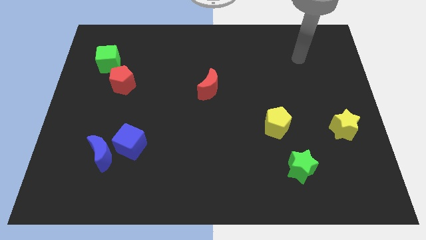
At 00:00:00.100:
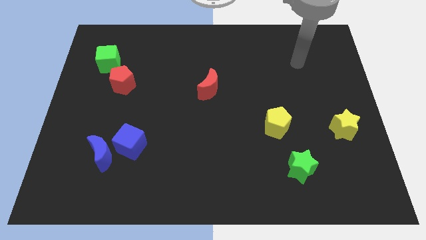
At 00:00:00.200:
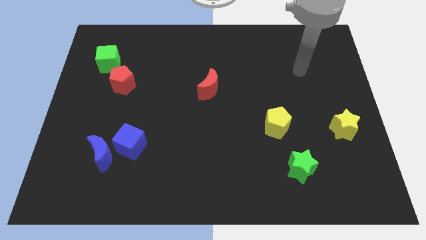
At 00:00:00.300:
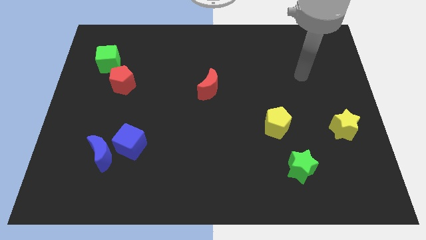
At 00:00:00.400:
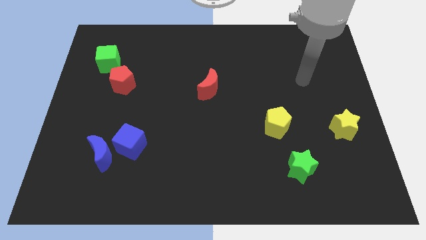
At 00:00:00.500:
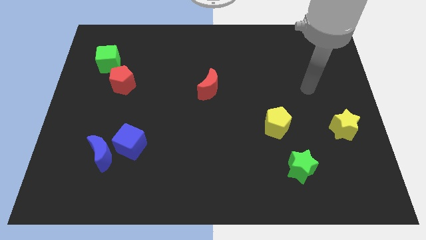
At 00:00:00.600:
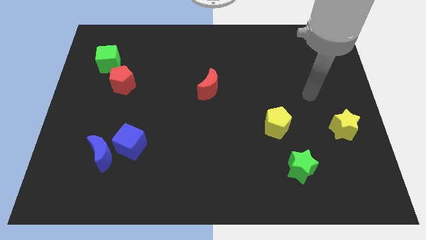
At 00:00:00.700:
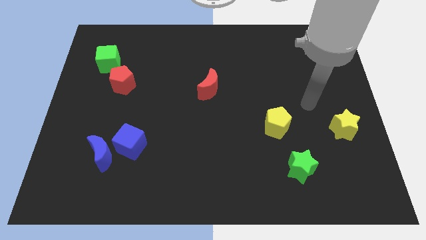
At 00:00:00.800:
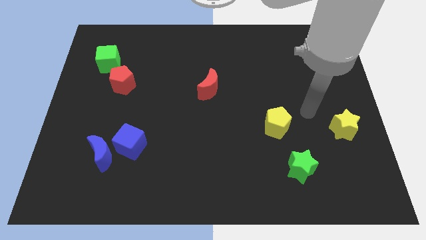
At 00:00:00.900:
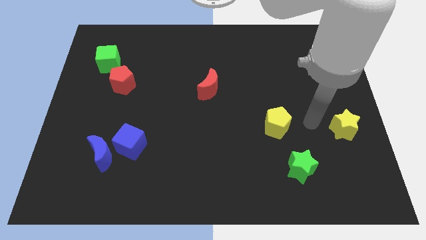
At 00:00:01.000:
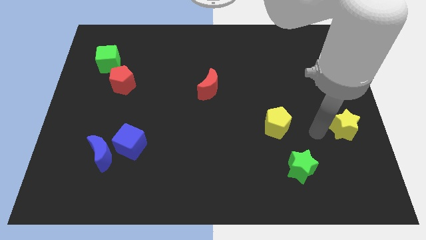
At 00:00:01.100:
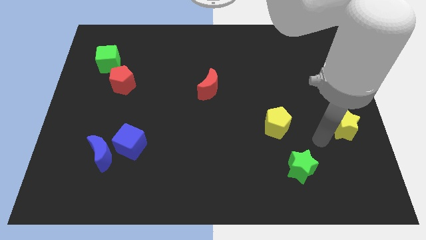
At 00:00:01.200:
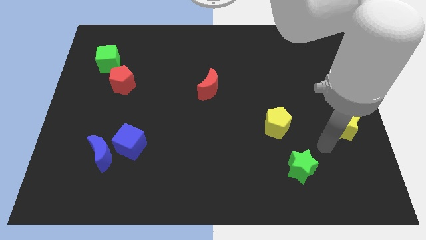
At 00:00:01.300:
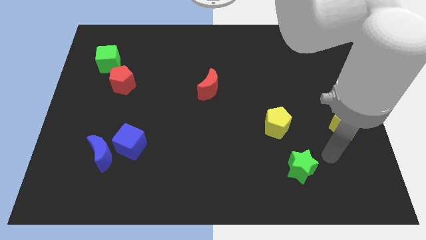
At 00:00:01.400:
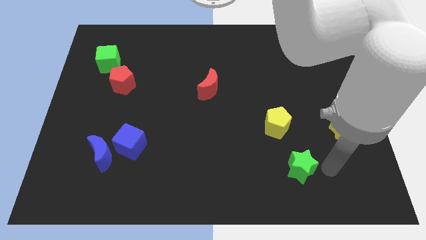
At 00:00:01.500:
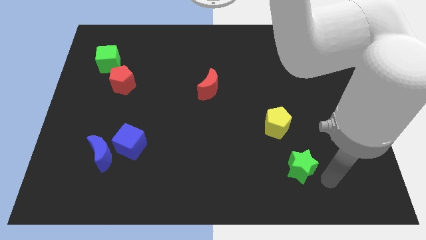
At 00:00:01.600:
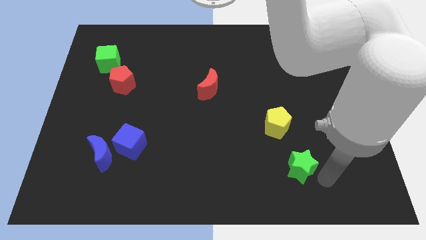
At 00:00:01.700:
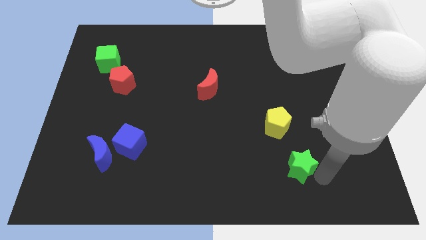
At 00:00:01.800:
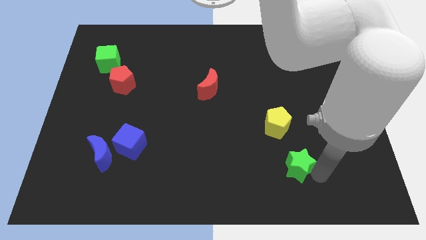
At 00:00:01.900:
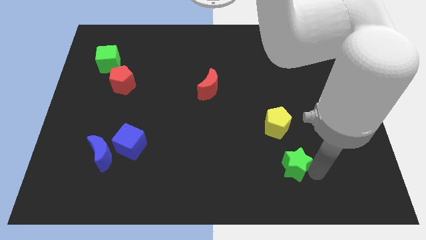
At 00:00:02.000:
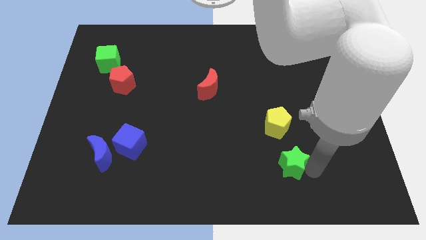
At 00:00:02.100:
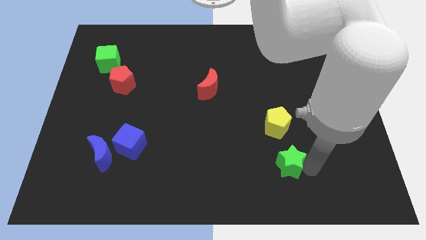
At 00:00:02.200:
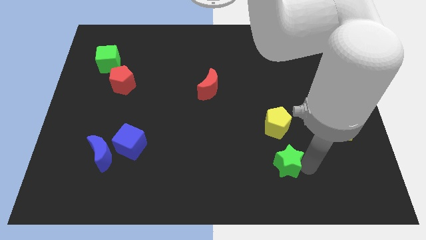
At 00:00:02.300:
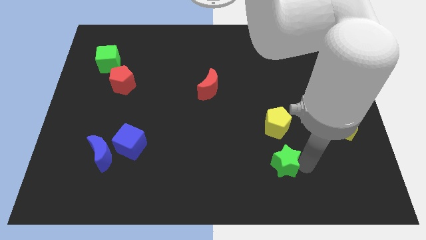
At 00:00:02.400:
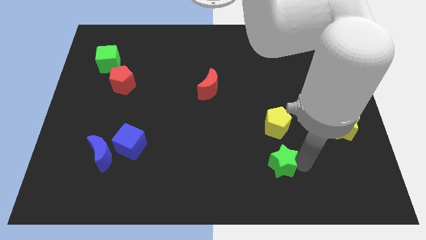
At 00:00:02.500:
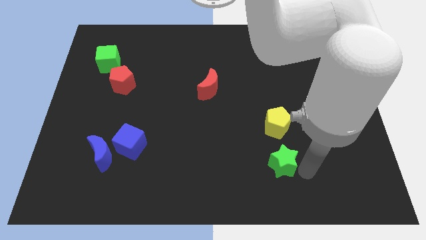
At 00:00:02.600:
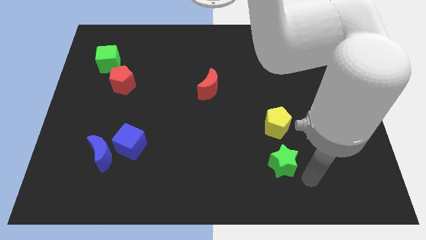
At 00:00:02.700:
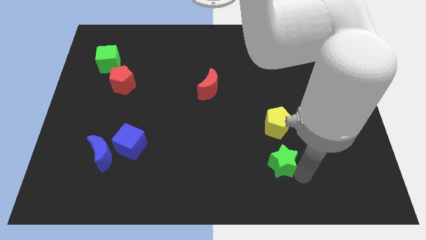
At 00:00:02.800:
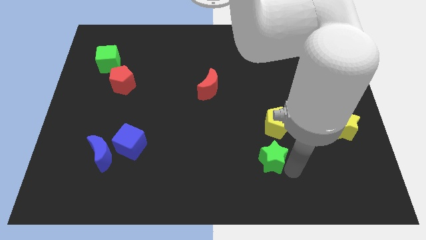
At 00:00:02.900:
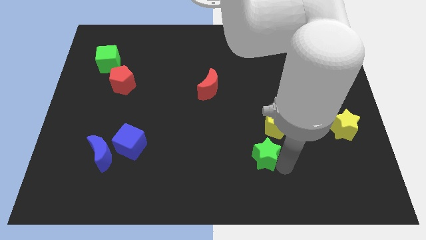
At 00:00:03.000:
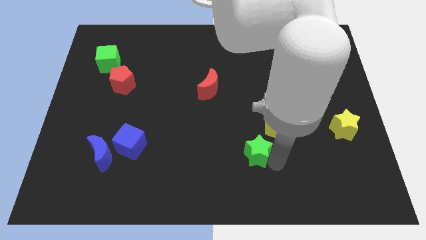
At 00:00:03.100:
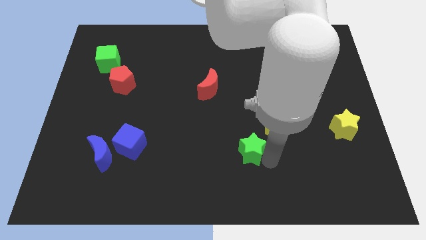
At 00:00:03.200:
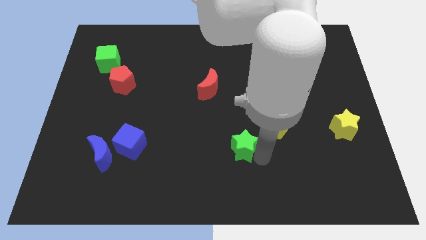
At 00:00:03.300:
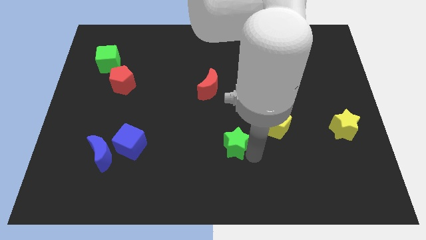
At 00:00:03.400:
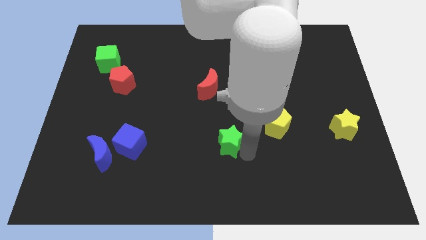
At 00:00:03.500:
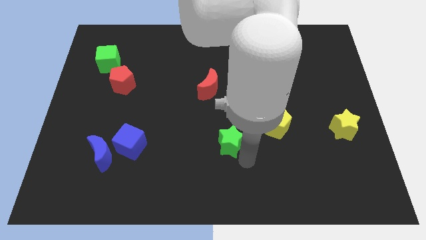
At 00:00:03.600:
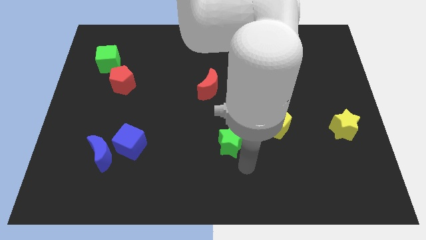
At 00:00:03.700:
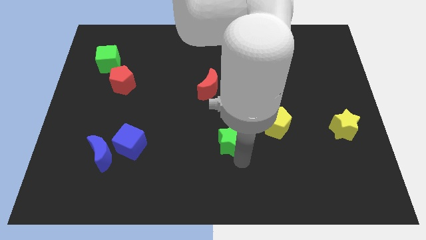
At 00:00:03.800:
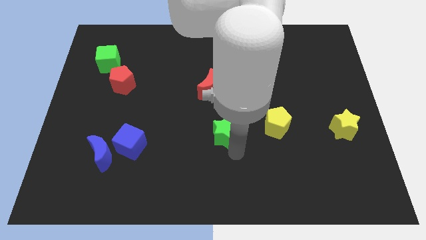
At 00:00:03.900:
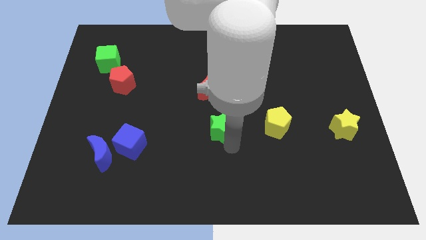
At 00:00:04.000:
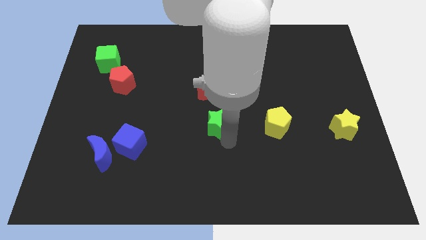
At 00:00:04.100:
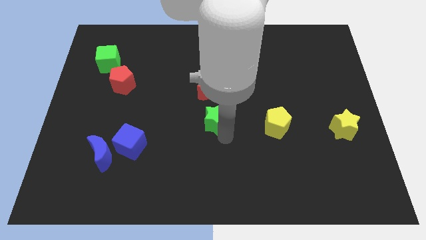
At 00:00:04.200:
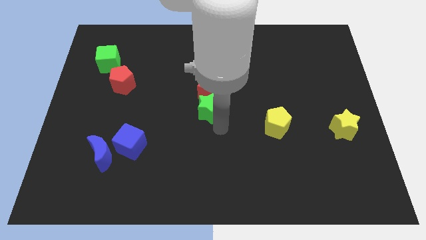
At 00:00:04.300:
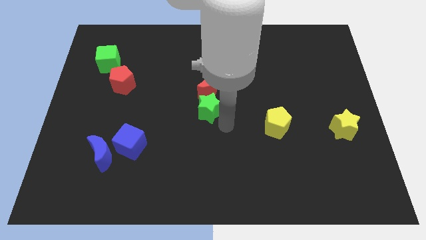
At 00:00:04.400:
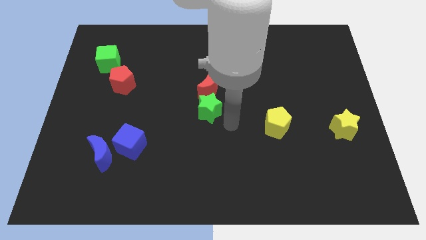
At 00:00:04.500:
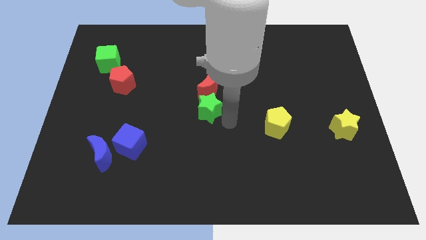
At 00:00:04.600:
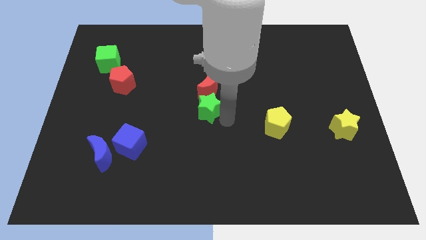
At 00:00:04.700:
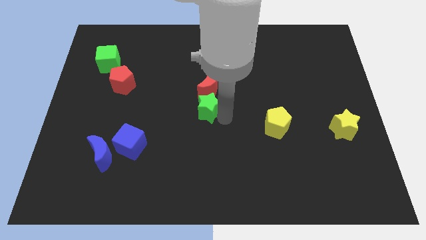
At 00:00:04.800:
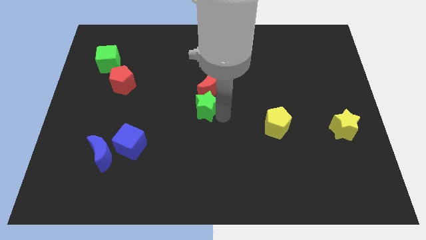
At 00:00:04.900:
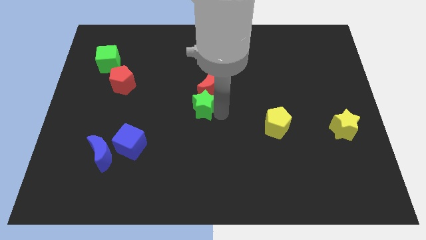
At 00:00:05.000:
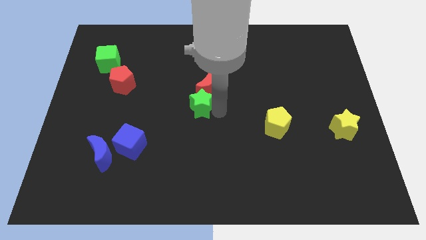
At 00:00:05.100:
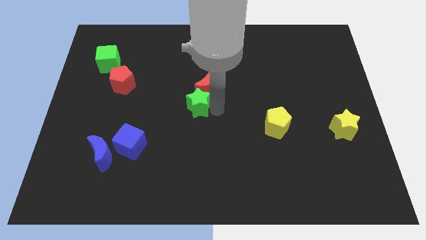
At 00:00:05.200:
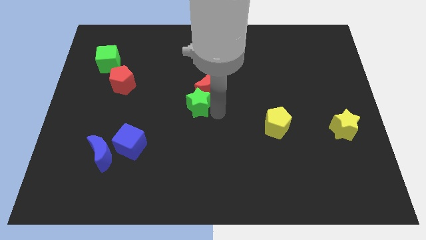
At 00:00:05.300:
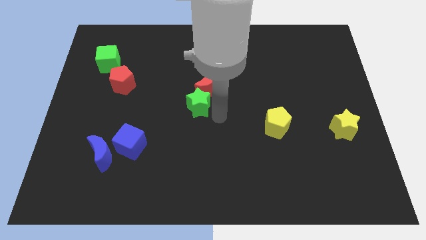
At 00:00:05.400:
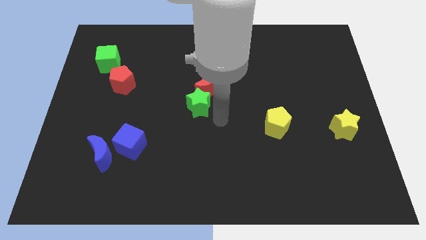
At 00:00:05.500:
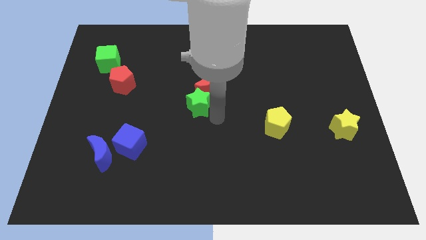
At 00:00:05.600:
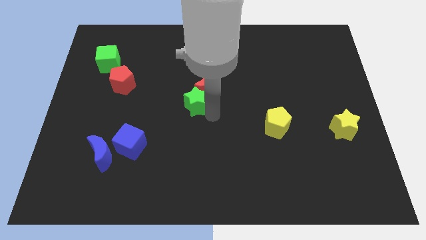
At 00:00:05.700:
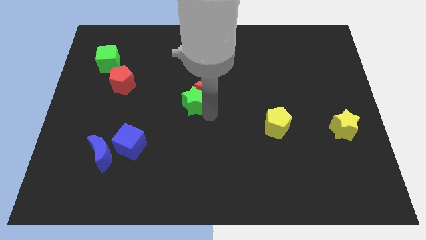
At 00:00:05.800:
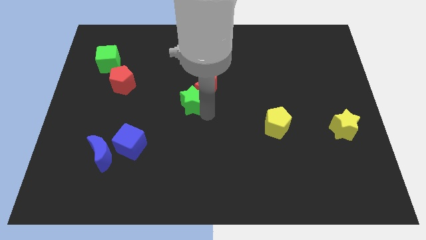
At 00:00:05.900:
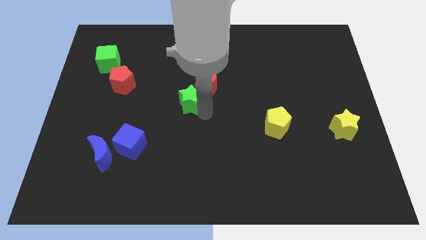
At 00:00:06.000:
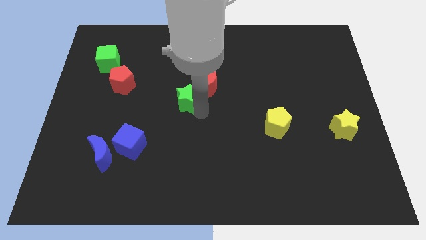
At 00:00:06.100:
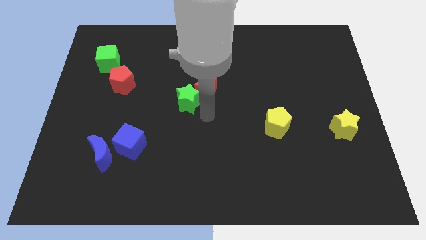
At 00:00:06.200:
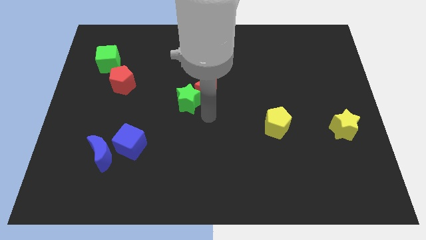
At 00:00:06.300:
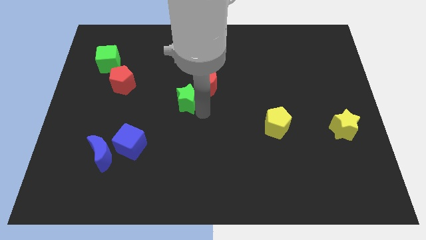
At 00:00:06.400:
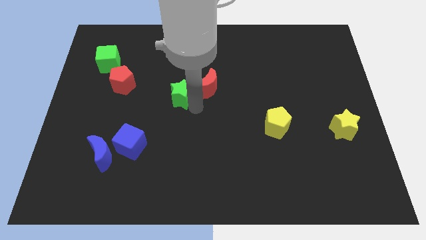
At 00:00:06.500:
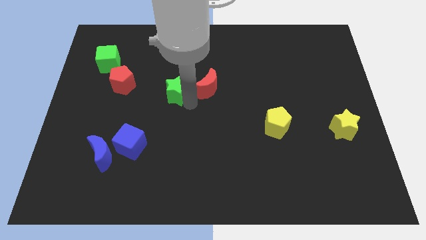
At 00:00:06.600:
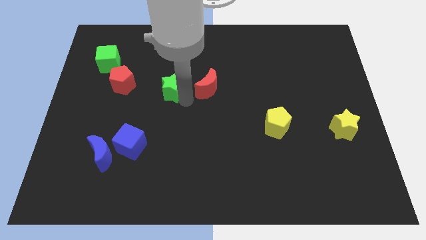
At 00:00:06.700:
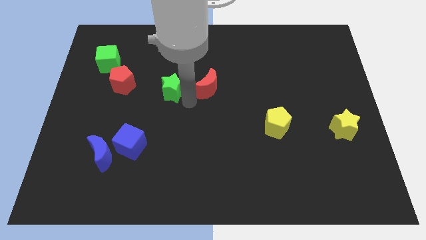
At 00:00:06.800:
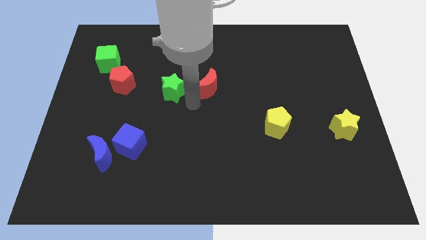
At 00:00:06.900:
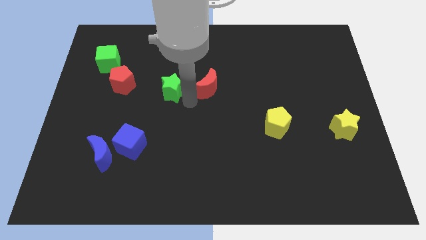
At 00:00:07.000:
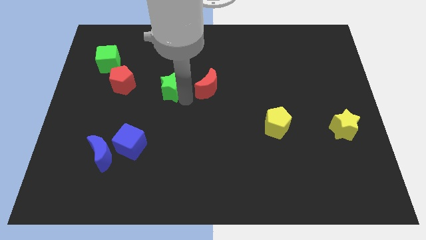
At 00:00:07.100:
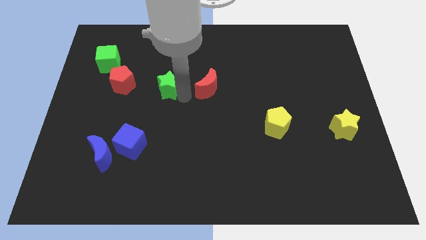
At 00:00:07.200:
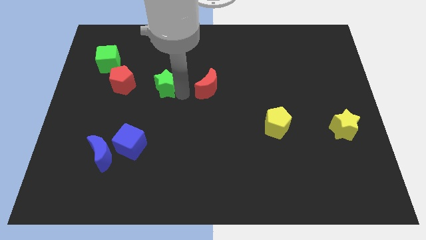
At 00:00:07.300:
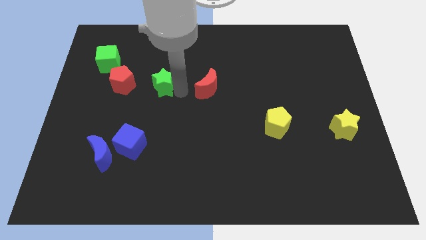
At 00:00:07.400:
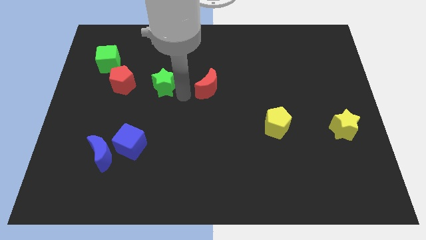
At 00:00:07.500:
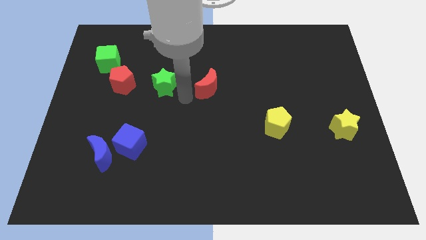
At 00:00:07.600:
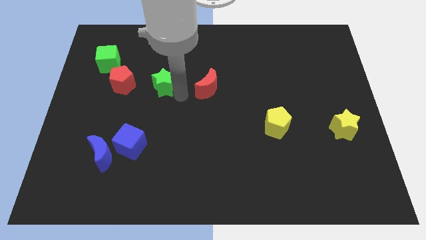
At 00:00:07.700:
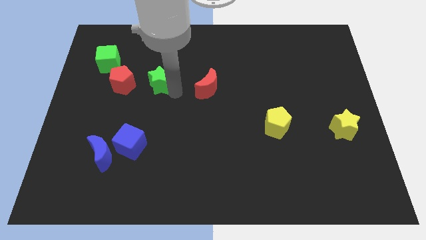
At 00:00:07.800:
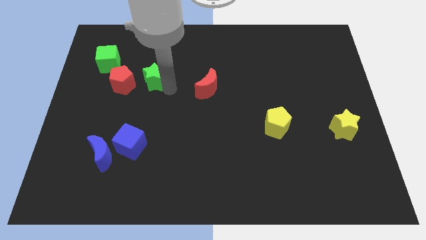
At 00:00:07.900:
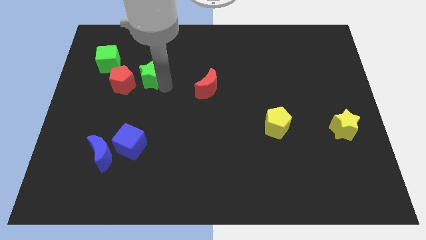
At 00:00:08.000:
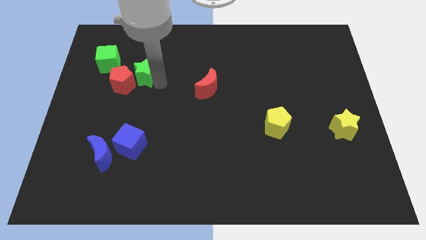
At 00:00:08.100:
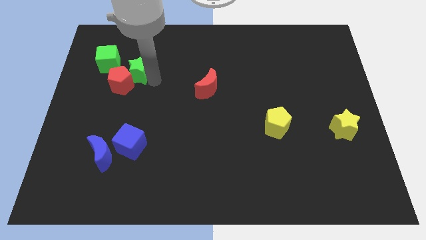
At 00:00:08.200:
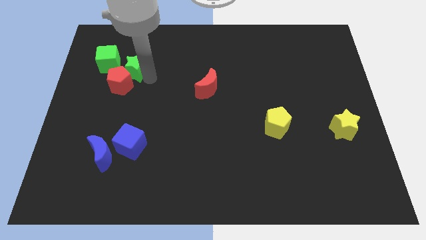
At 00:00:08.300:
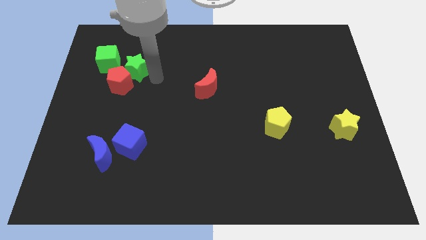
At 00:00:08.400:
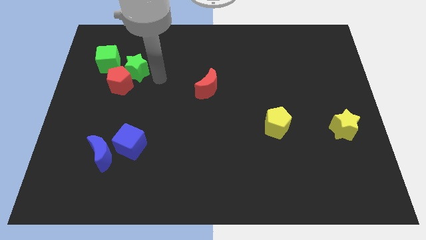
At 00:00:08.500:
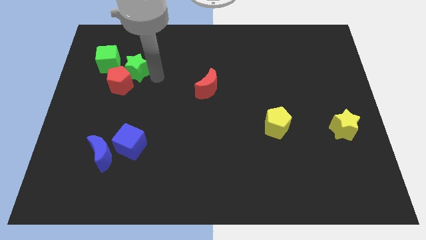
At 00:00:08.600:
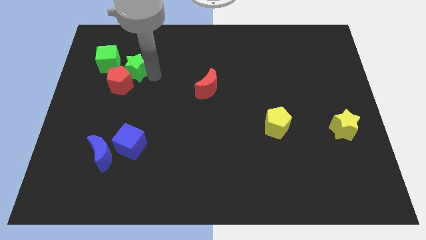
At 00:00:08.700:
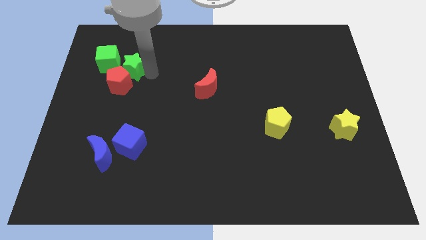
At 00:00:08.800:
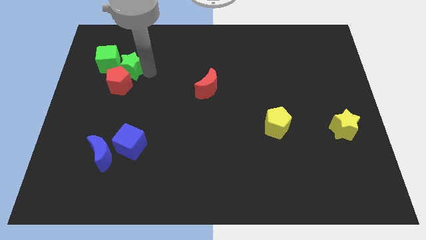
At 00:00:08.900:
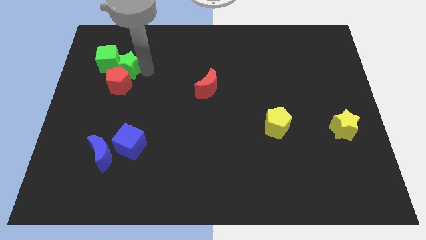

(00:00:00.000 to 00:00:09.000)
slide the green star next to the green cube
